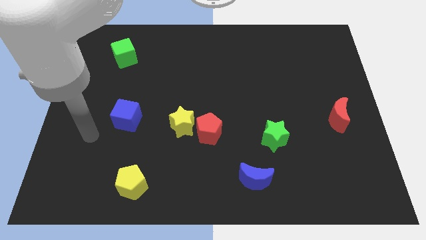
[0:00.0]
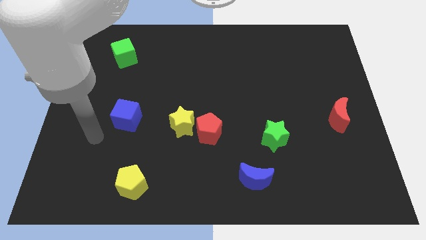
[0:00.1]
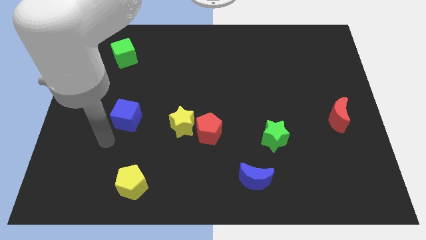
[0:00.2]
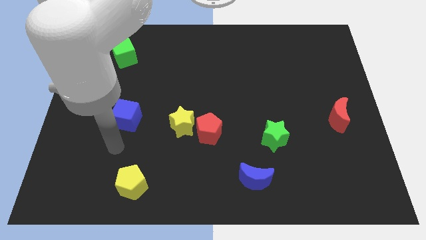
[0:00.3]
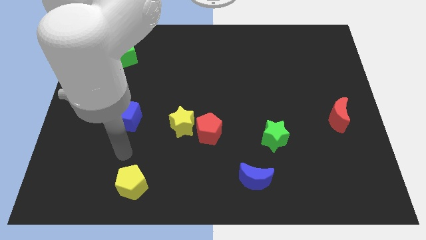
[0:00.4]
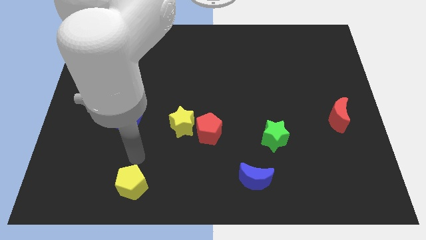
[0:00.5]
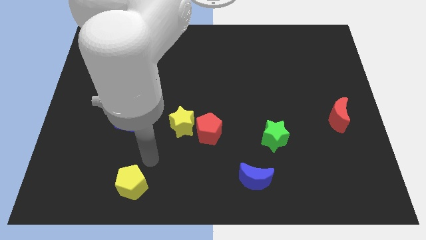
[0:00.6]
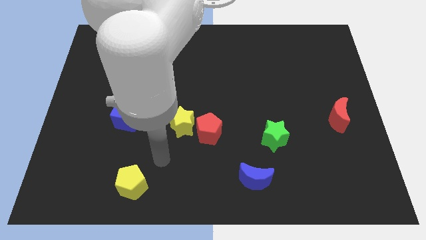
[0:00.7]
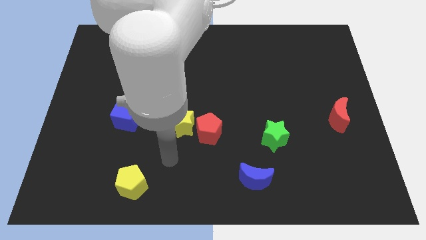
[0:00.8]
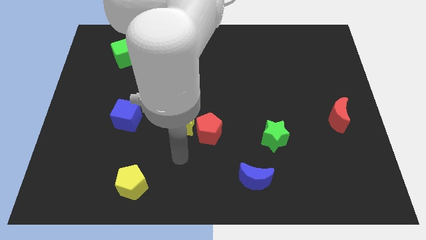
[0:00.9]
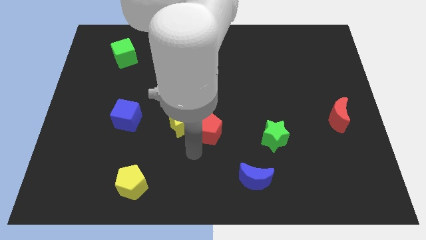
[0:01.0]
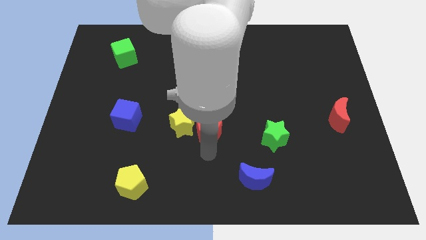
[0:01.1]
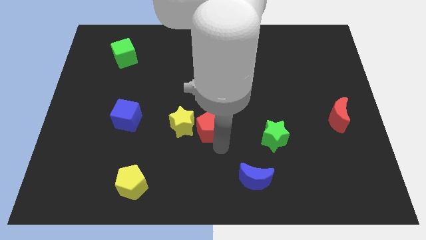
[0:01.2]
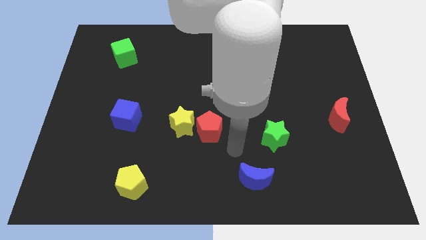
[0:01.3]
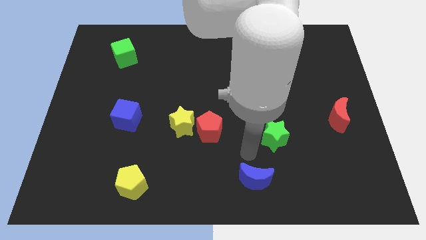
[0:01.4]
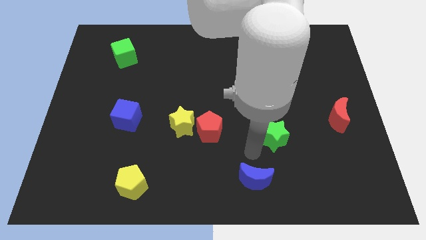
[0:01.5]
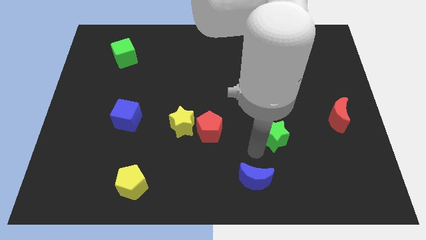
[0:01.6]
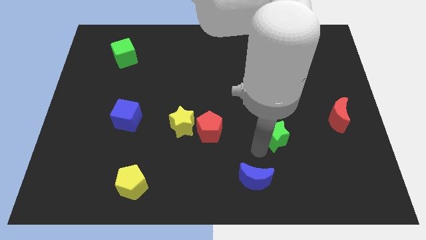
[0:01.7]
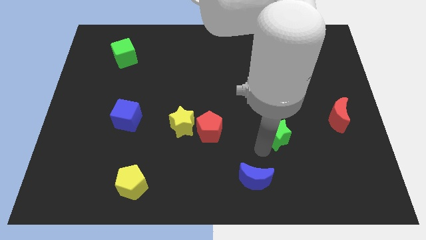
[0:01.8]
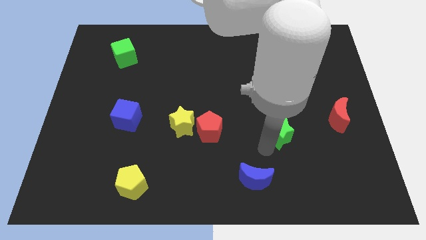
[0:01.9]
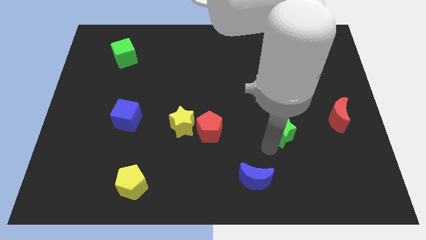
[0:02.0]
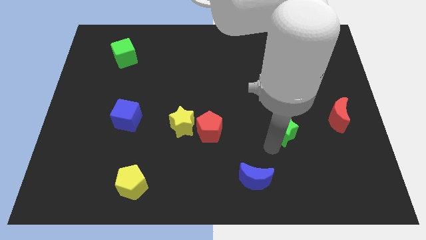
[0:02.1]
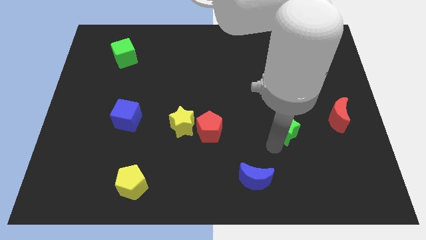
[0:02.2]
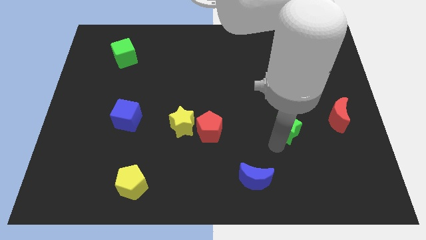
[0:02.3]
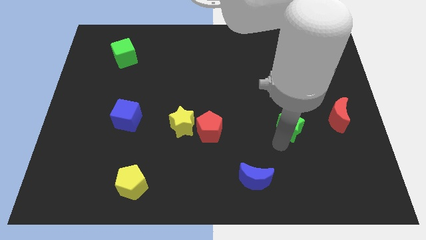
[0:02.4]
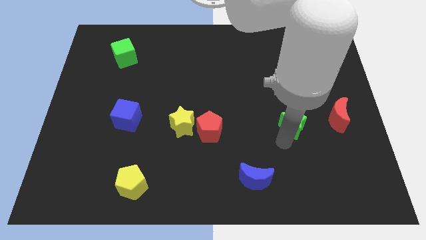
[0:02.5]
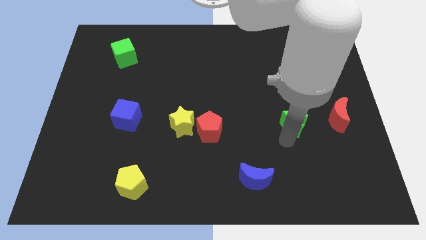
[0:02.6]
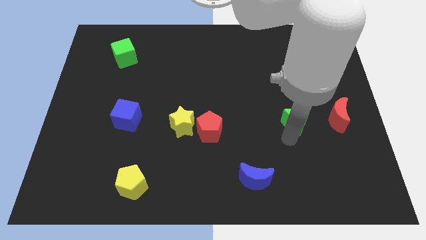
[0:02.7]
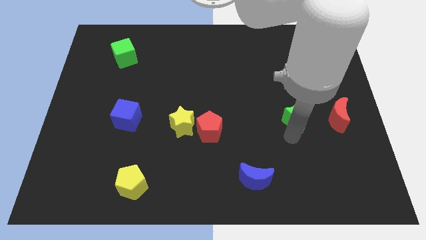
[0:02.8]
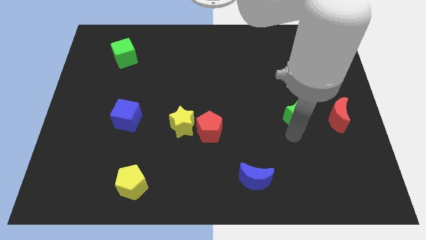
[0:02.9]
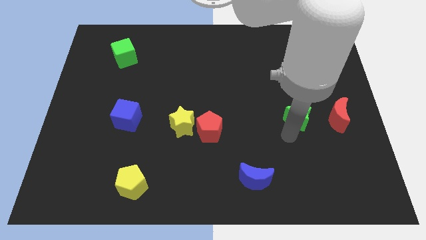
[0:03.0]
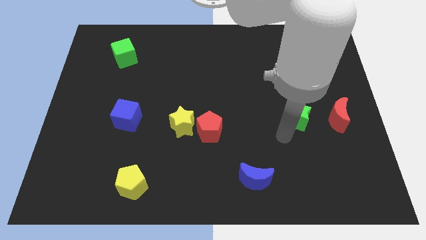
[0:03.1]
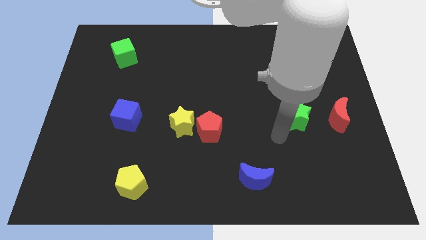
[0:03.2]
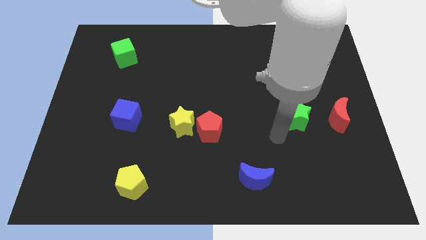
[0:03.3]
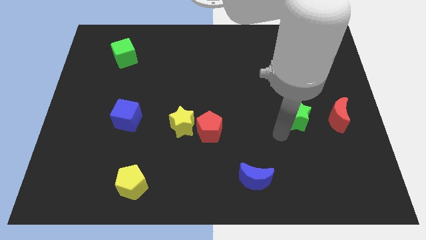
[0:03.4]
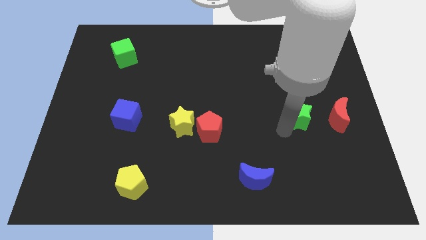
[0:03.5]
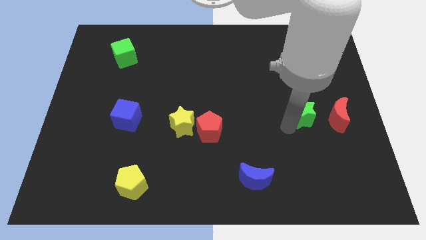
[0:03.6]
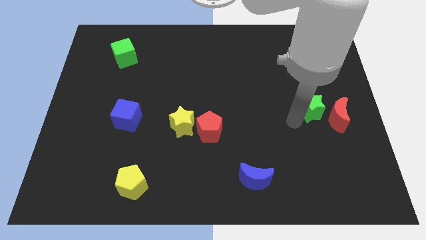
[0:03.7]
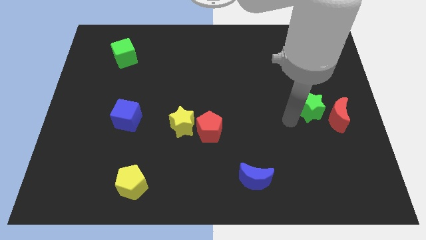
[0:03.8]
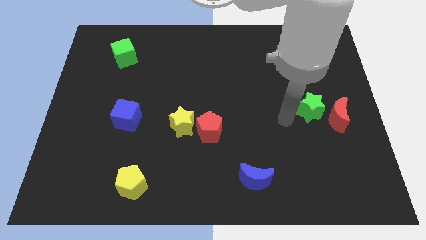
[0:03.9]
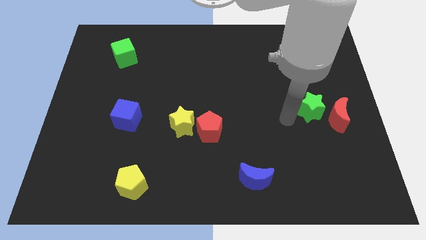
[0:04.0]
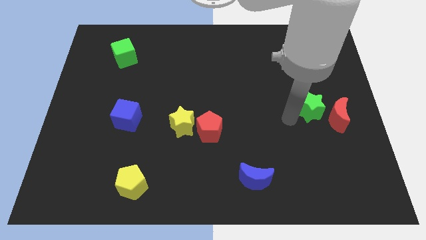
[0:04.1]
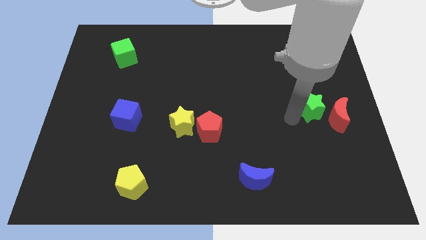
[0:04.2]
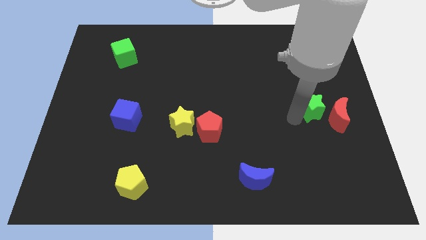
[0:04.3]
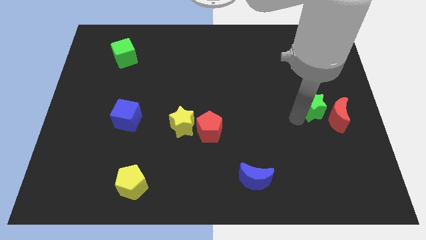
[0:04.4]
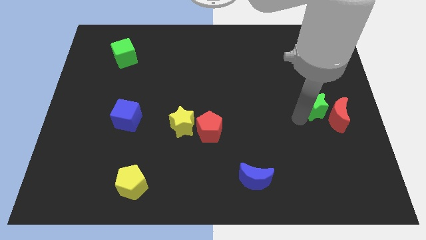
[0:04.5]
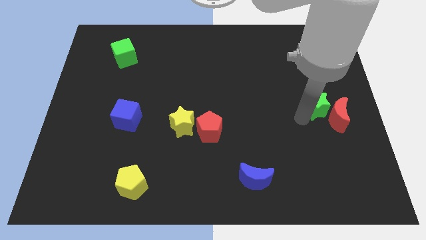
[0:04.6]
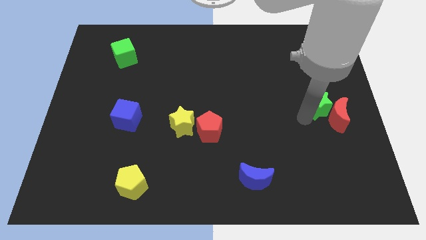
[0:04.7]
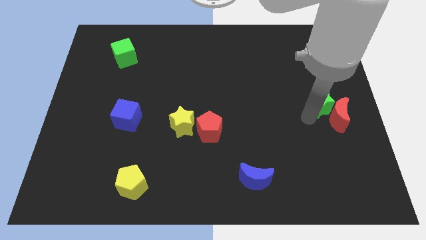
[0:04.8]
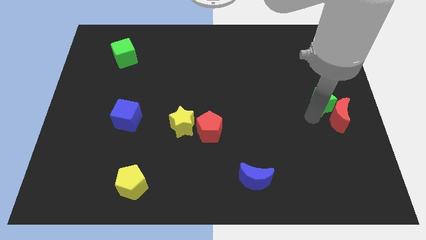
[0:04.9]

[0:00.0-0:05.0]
push the green star to the center right

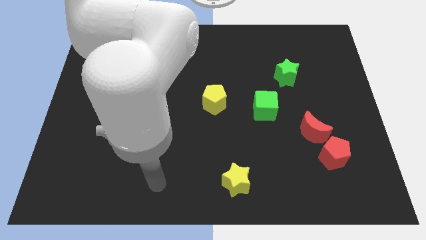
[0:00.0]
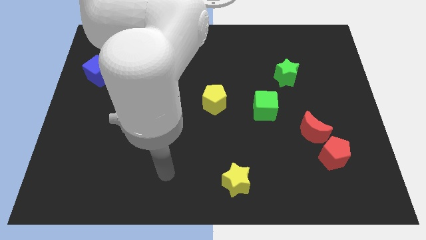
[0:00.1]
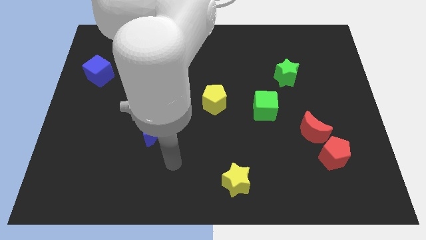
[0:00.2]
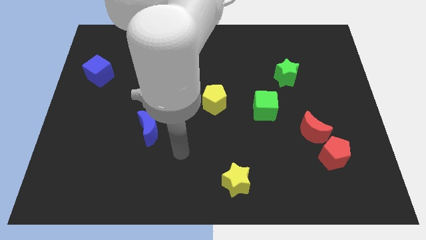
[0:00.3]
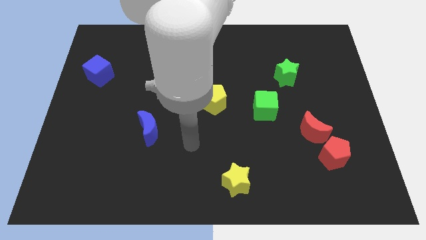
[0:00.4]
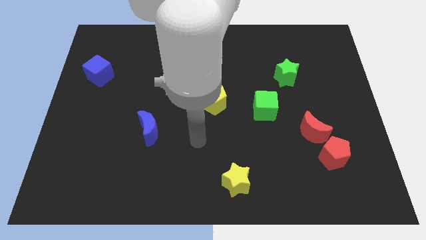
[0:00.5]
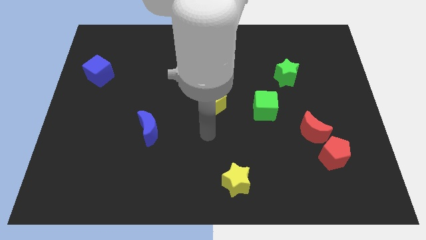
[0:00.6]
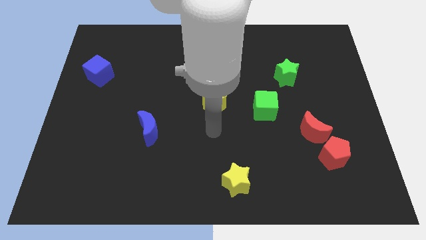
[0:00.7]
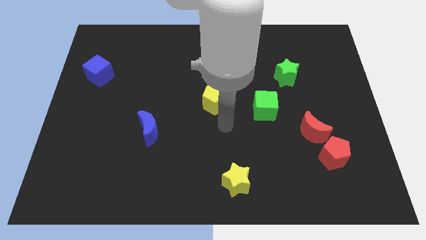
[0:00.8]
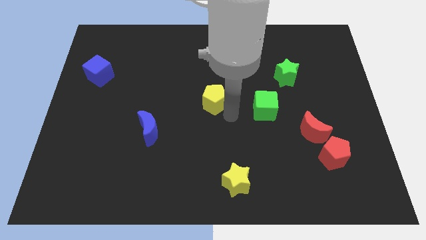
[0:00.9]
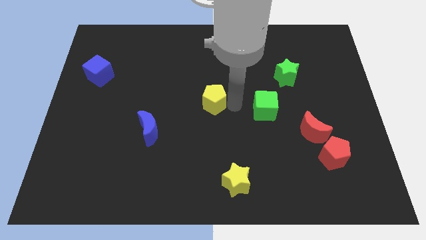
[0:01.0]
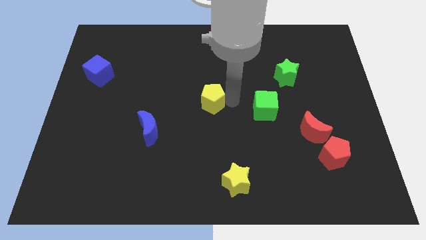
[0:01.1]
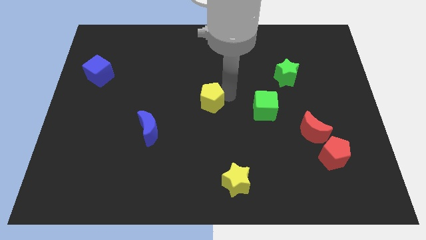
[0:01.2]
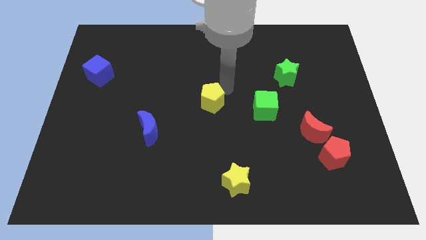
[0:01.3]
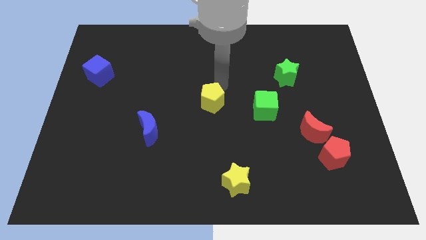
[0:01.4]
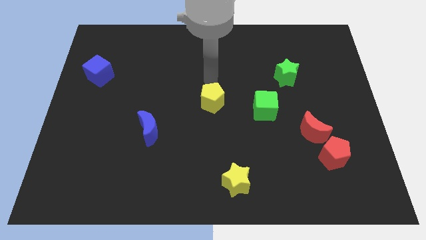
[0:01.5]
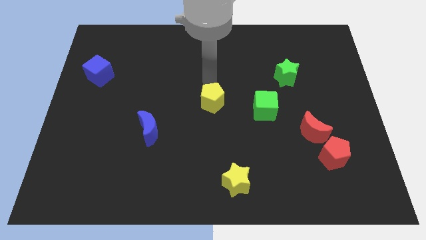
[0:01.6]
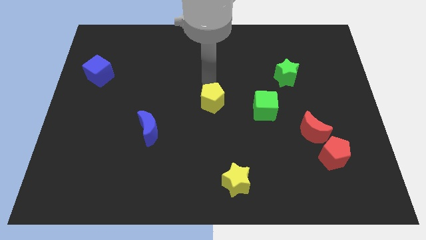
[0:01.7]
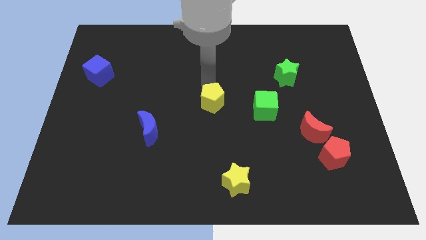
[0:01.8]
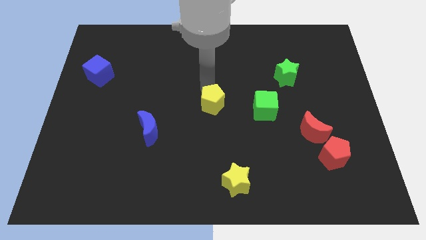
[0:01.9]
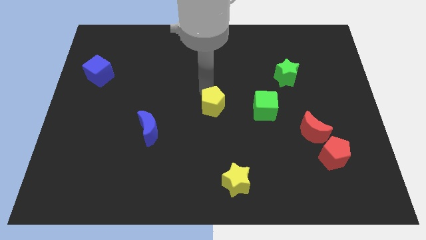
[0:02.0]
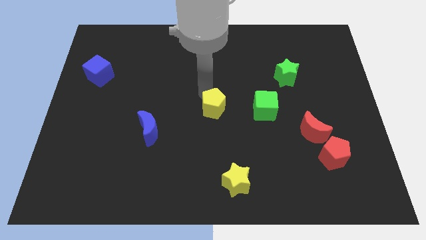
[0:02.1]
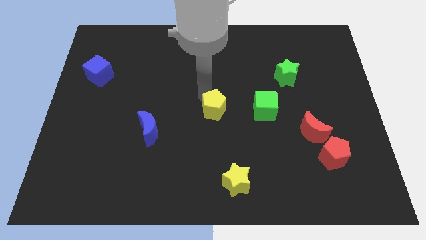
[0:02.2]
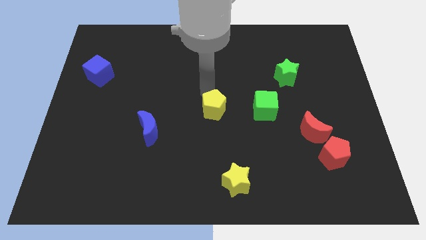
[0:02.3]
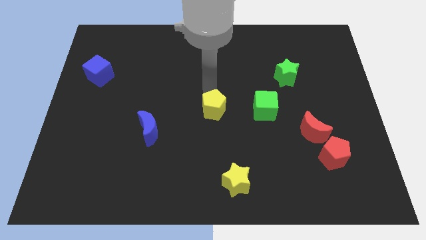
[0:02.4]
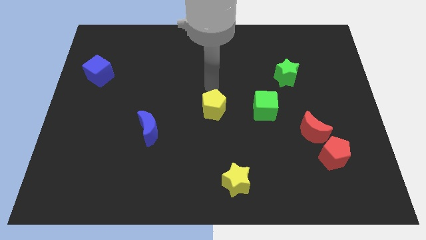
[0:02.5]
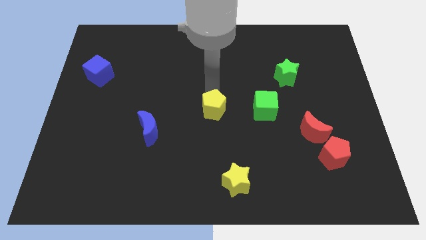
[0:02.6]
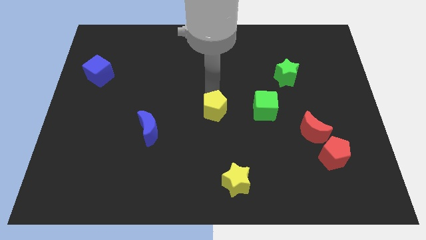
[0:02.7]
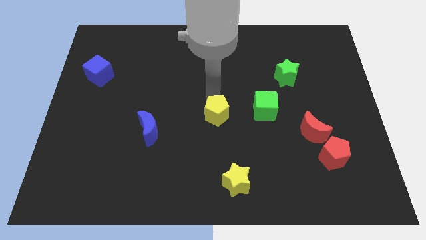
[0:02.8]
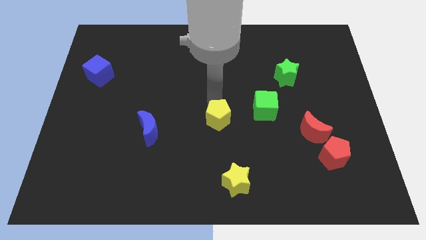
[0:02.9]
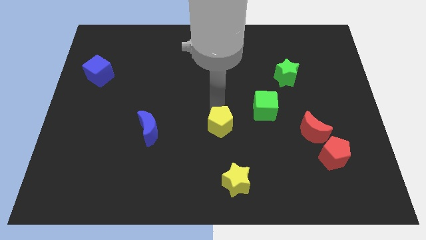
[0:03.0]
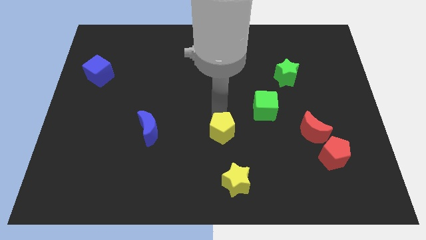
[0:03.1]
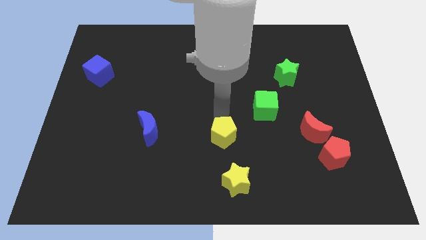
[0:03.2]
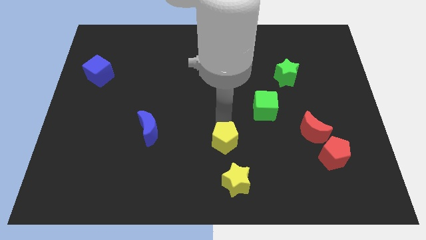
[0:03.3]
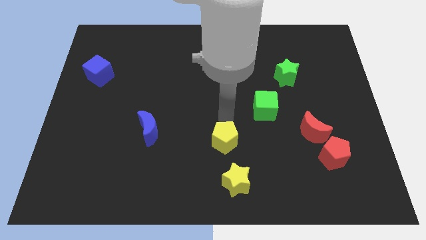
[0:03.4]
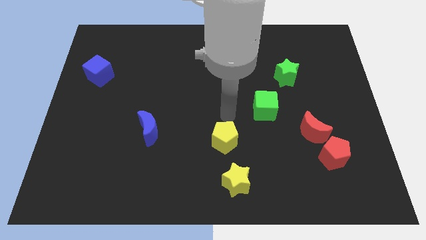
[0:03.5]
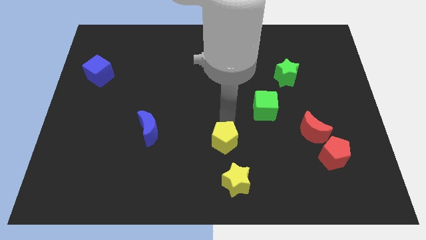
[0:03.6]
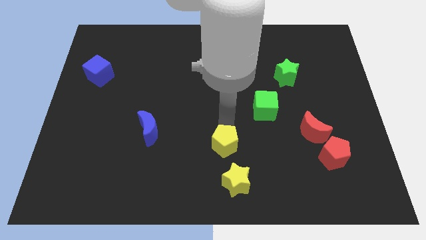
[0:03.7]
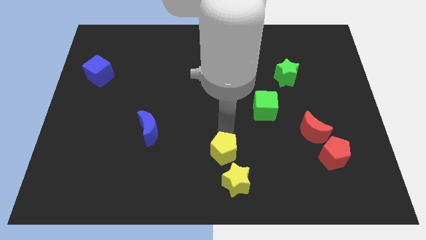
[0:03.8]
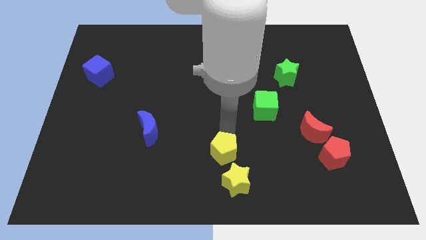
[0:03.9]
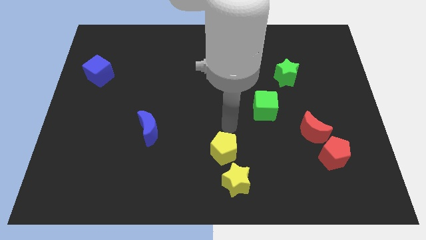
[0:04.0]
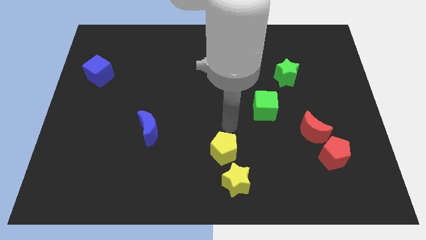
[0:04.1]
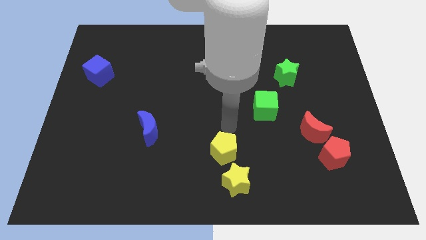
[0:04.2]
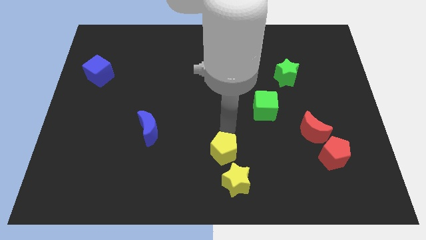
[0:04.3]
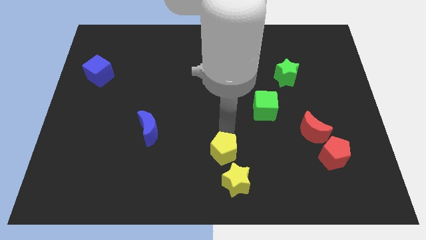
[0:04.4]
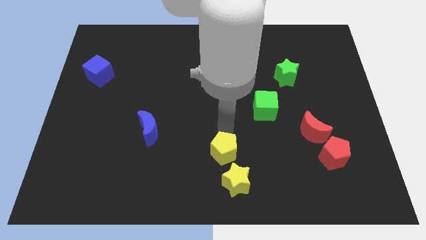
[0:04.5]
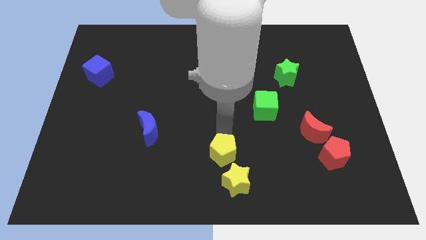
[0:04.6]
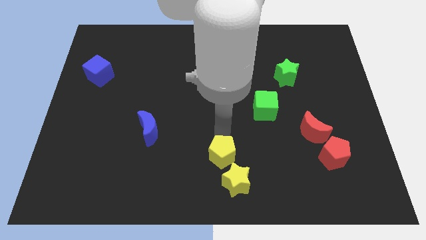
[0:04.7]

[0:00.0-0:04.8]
slide the yellow pentagon to the bottom side
